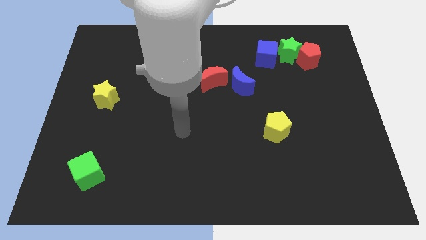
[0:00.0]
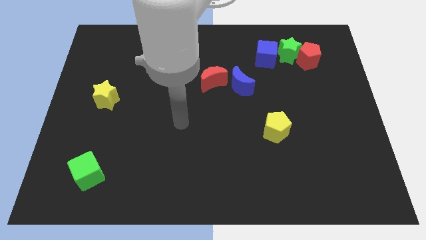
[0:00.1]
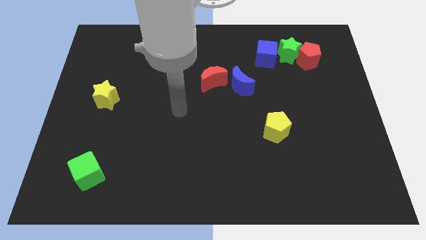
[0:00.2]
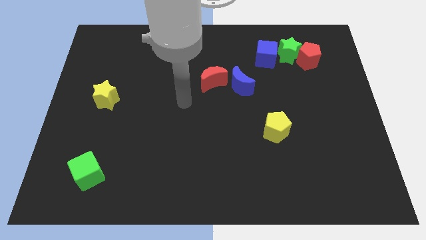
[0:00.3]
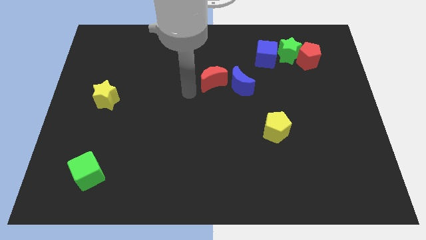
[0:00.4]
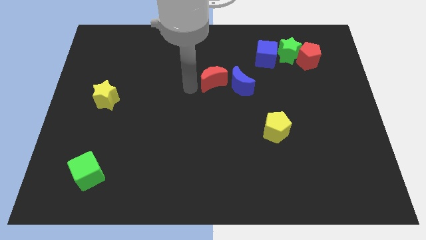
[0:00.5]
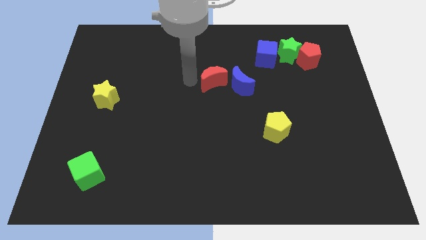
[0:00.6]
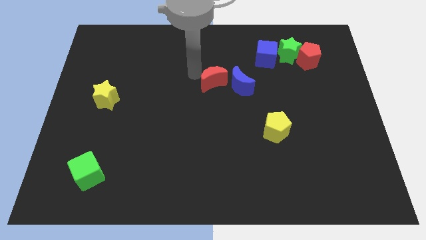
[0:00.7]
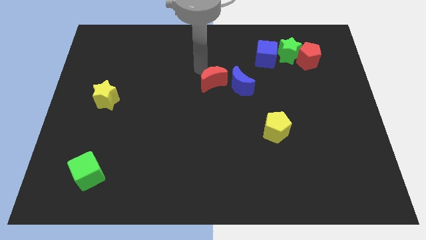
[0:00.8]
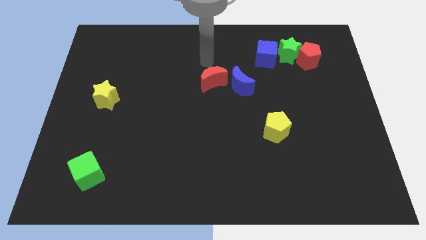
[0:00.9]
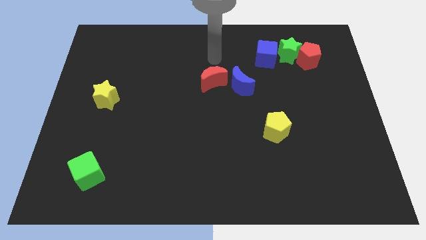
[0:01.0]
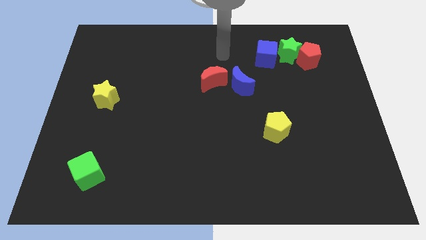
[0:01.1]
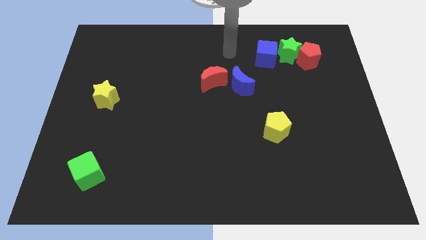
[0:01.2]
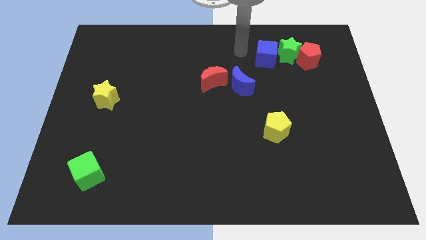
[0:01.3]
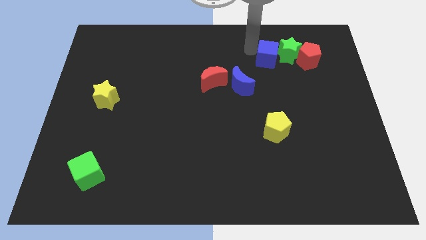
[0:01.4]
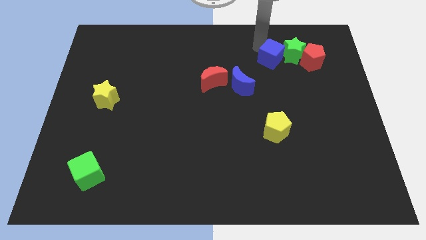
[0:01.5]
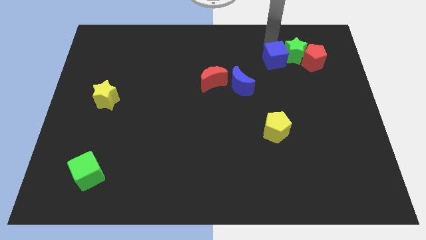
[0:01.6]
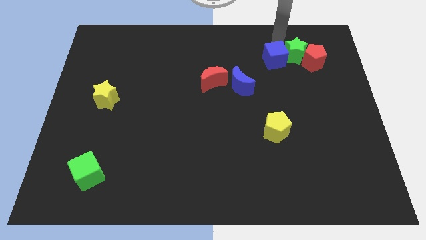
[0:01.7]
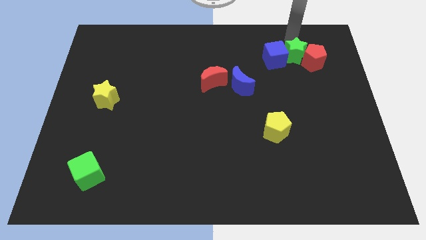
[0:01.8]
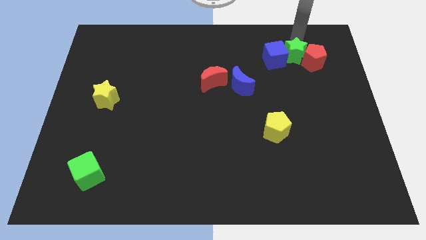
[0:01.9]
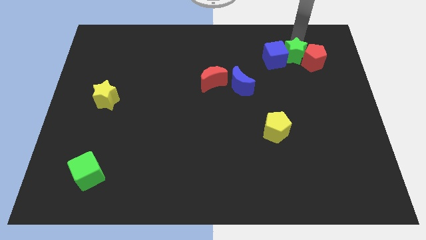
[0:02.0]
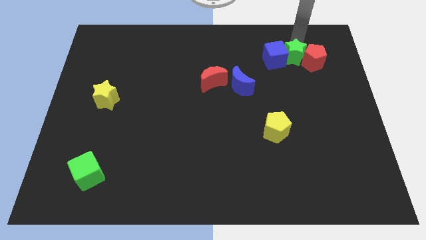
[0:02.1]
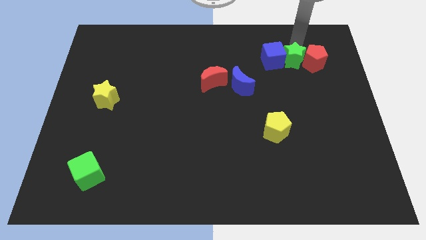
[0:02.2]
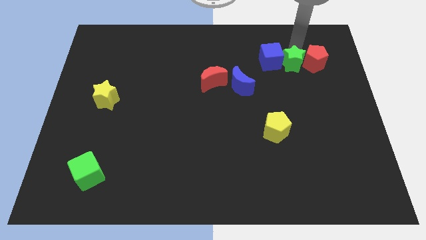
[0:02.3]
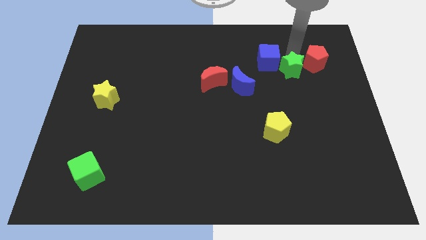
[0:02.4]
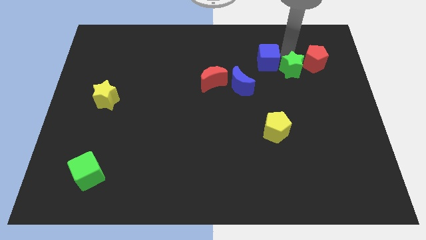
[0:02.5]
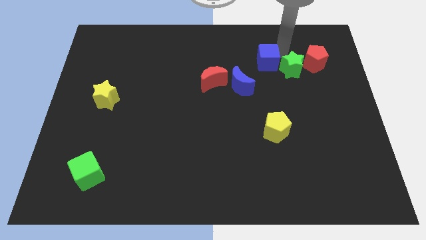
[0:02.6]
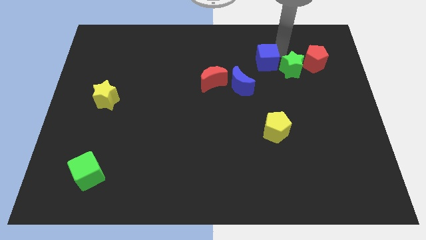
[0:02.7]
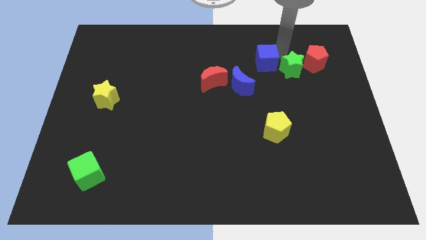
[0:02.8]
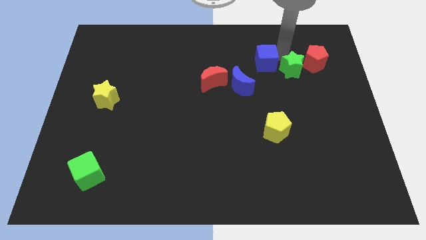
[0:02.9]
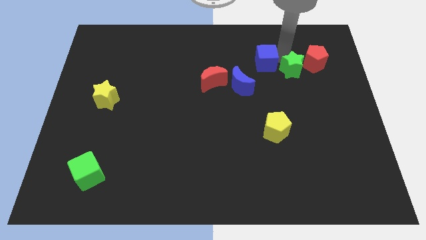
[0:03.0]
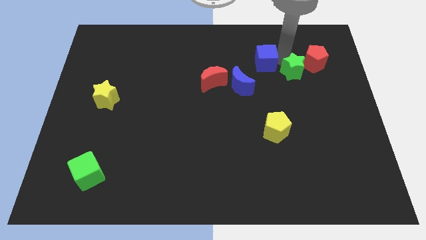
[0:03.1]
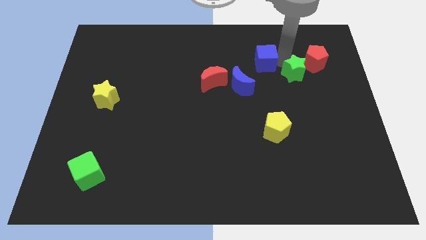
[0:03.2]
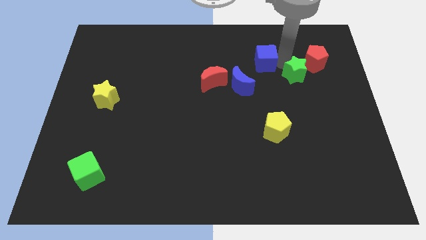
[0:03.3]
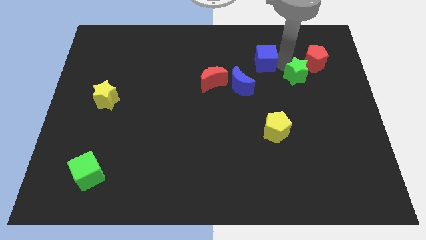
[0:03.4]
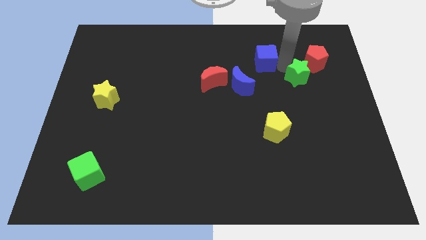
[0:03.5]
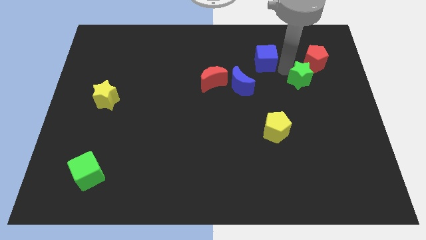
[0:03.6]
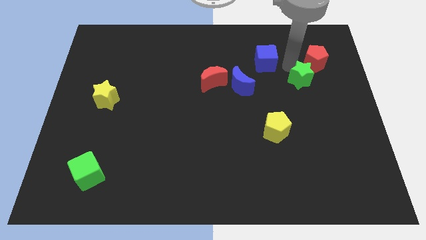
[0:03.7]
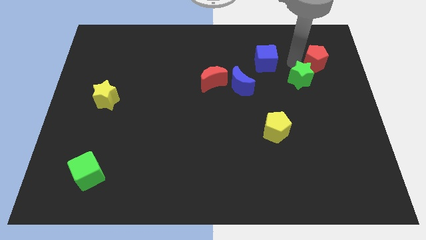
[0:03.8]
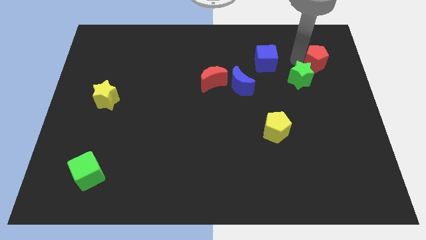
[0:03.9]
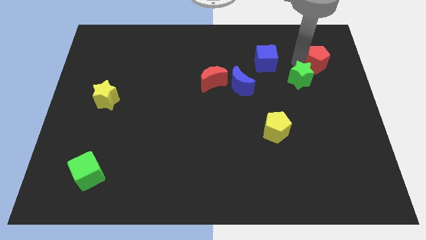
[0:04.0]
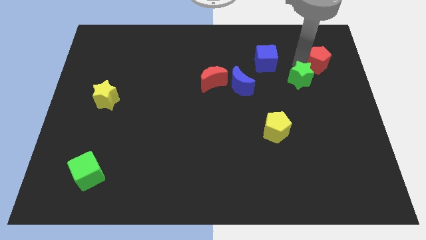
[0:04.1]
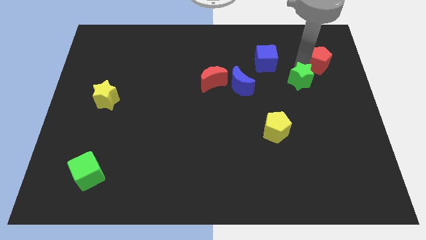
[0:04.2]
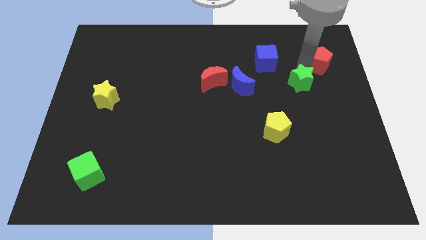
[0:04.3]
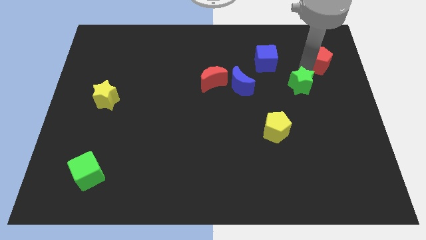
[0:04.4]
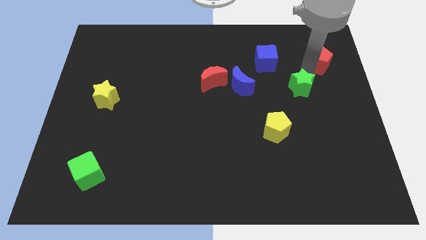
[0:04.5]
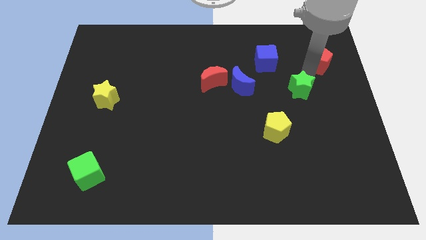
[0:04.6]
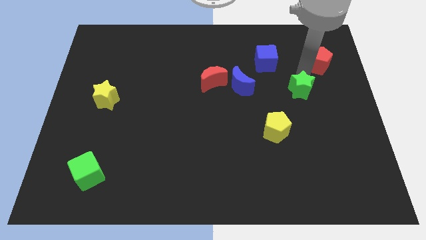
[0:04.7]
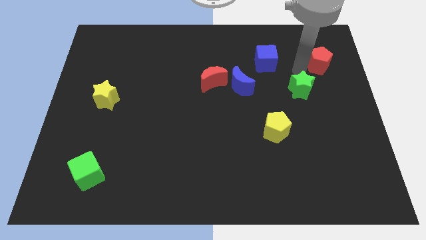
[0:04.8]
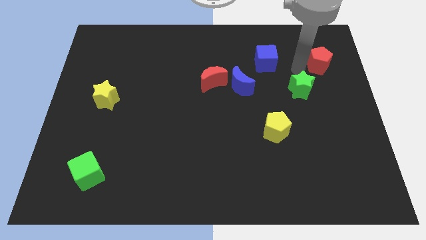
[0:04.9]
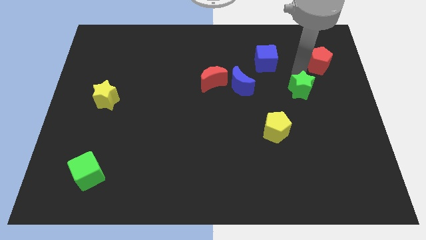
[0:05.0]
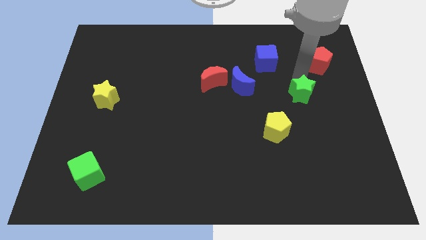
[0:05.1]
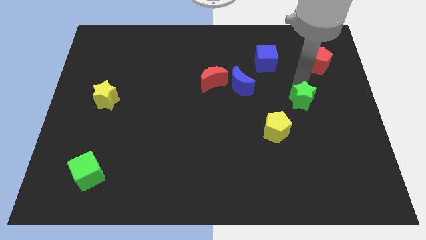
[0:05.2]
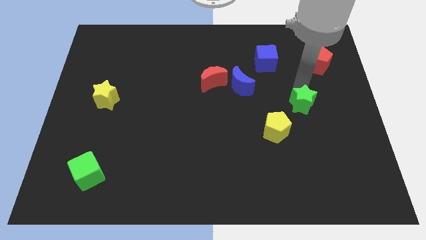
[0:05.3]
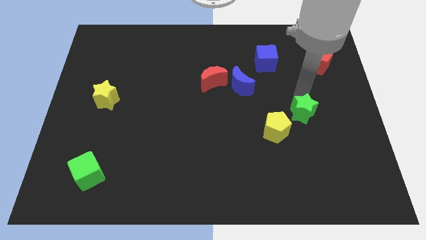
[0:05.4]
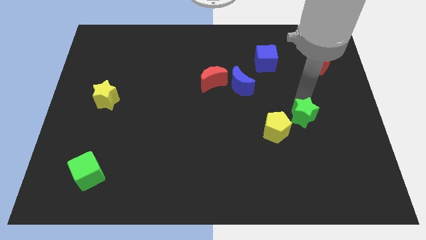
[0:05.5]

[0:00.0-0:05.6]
push the green star down

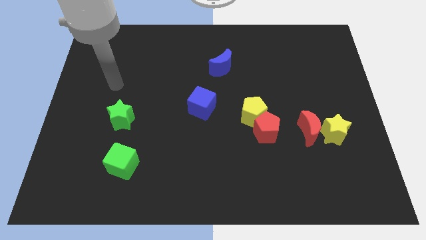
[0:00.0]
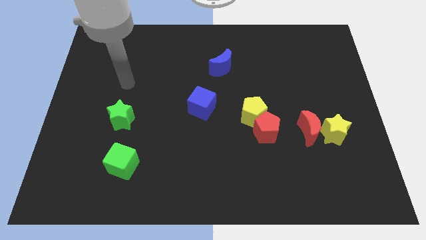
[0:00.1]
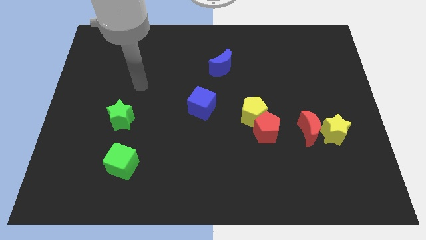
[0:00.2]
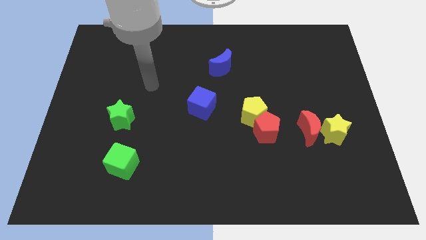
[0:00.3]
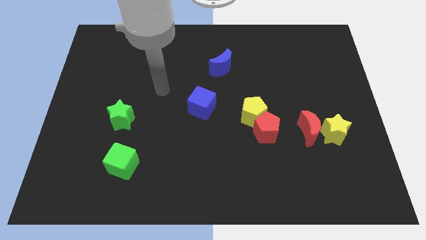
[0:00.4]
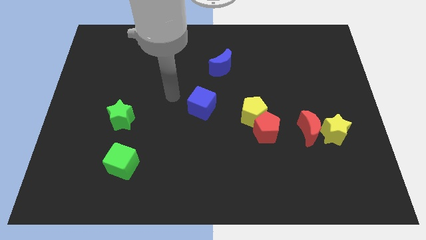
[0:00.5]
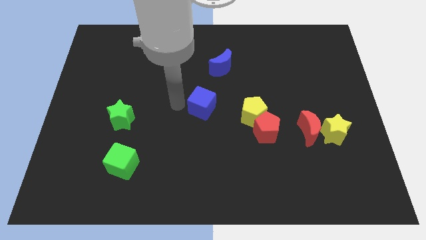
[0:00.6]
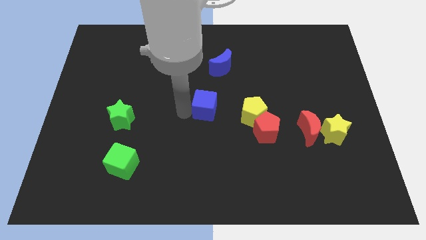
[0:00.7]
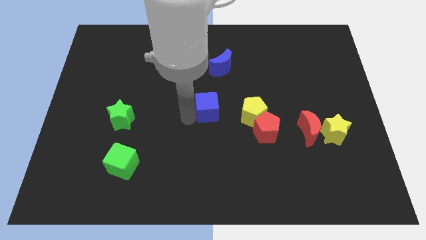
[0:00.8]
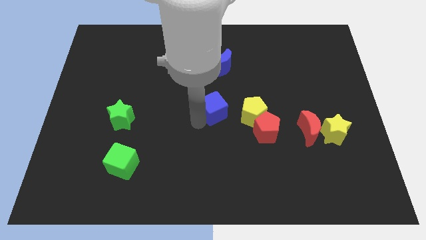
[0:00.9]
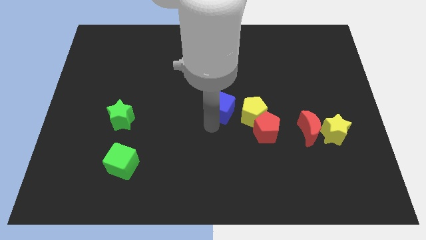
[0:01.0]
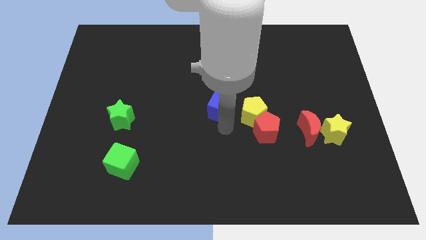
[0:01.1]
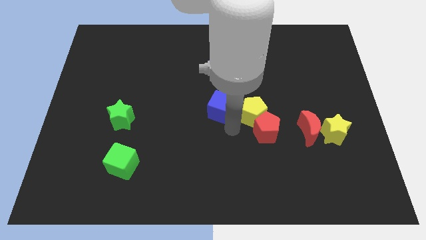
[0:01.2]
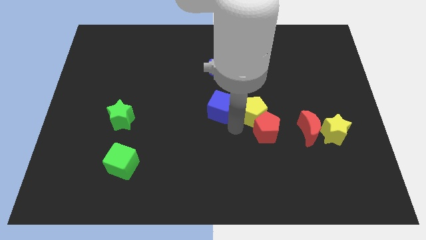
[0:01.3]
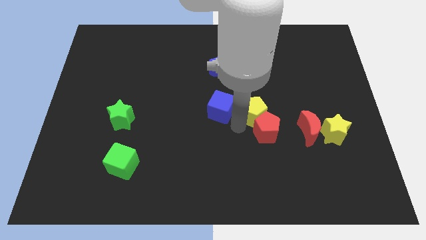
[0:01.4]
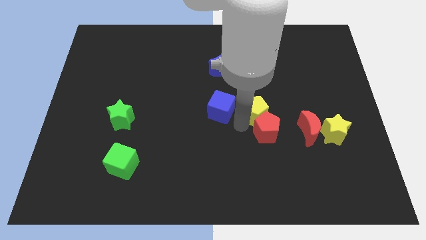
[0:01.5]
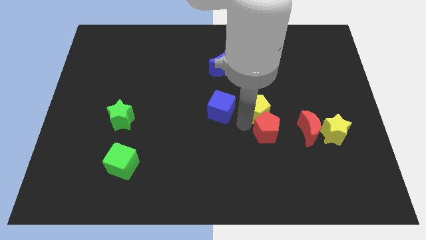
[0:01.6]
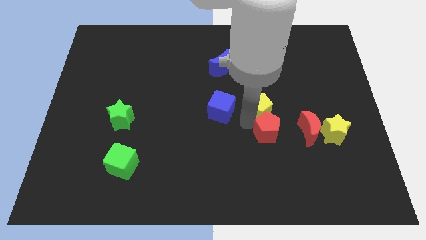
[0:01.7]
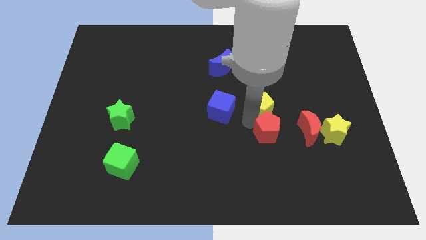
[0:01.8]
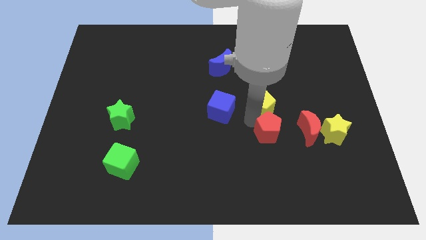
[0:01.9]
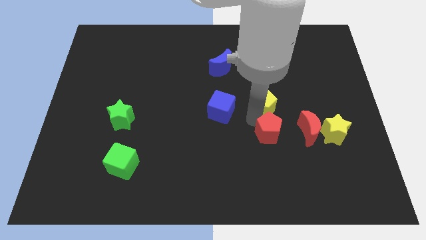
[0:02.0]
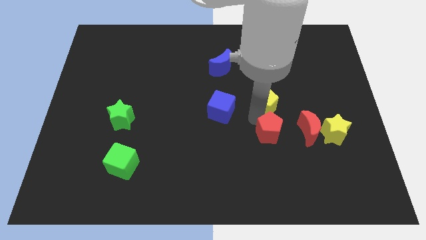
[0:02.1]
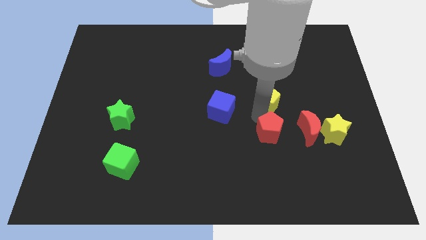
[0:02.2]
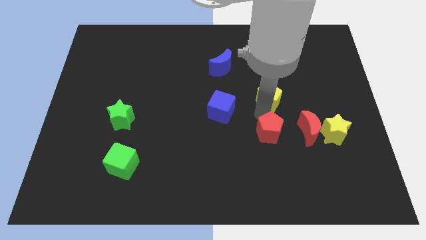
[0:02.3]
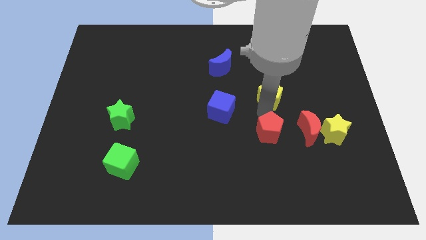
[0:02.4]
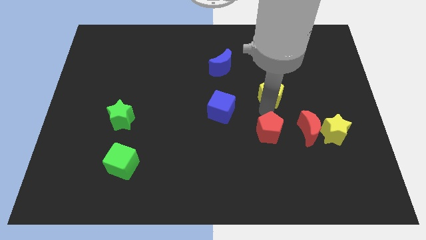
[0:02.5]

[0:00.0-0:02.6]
slightly move the yellow pentagon up and to the right
